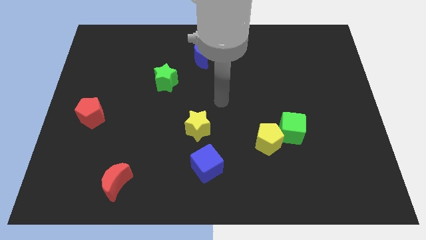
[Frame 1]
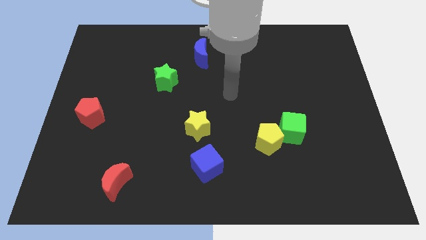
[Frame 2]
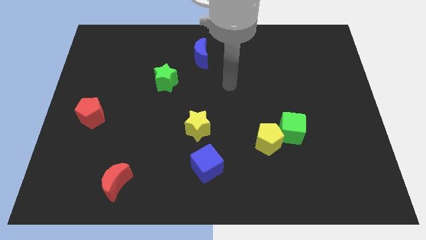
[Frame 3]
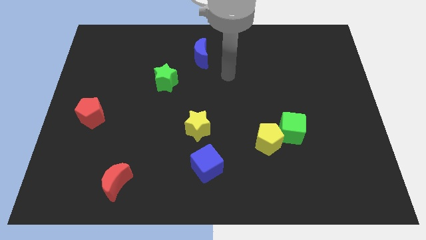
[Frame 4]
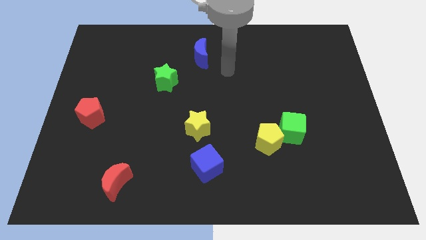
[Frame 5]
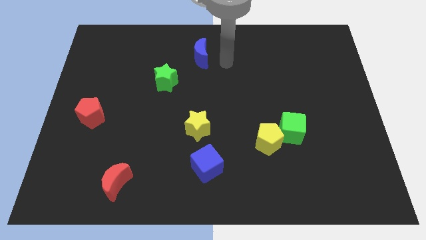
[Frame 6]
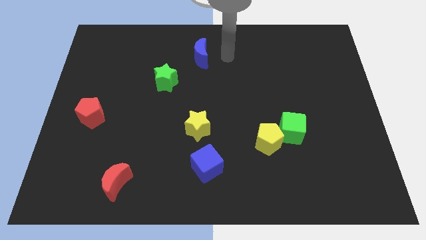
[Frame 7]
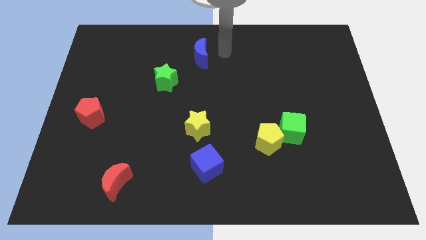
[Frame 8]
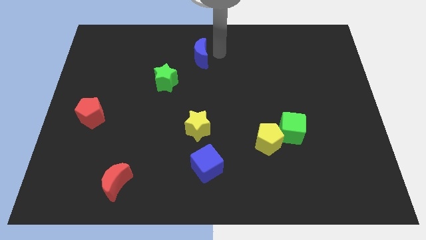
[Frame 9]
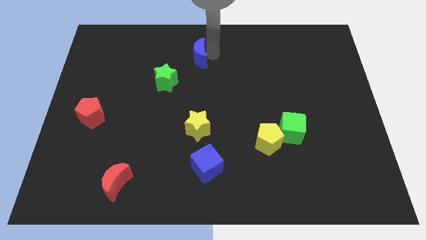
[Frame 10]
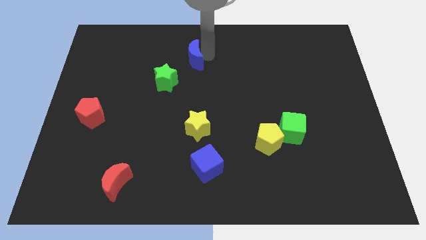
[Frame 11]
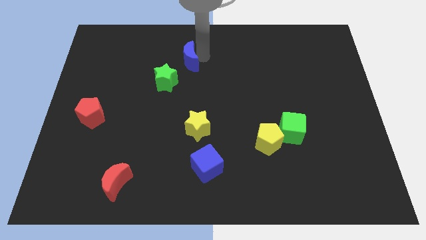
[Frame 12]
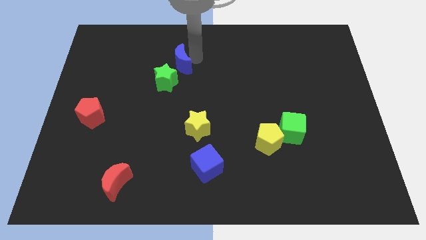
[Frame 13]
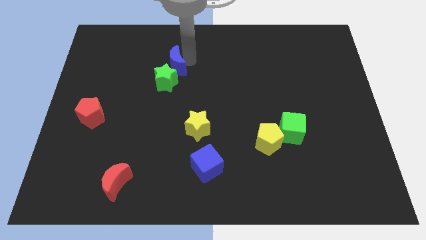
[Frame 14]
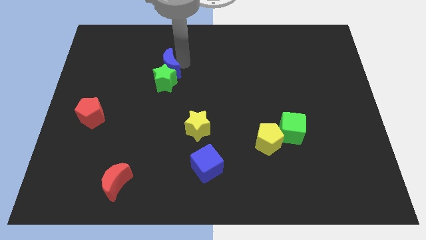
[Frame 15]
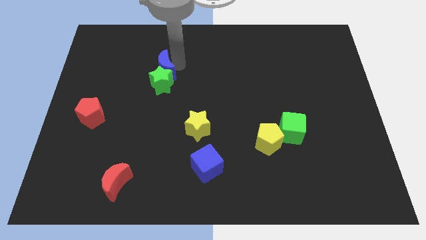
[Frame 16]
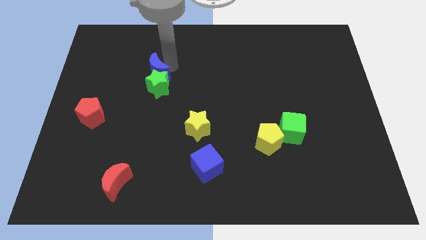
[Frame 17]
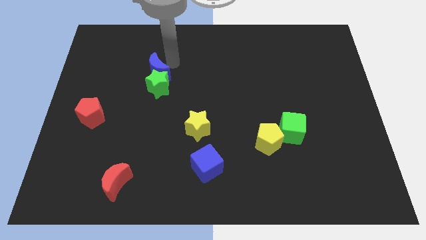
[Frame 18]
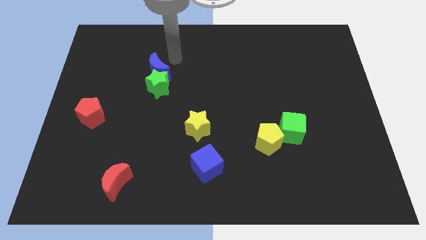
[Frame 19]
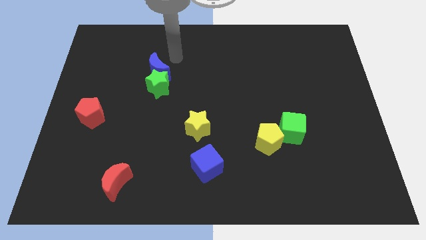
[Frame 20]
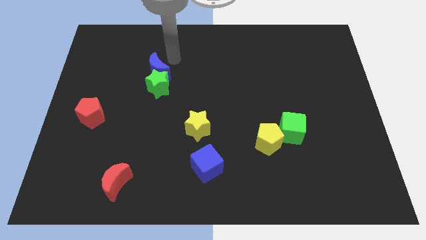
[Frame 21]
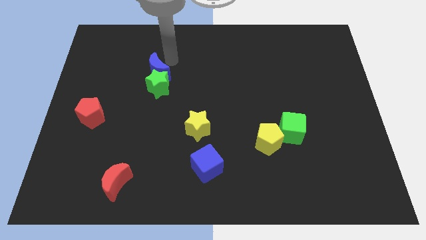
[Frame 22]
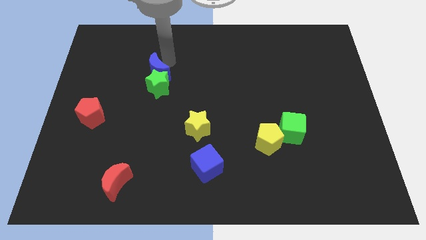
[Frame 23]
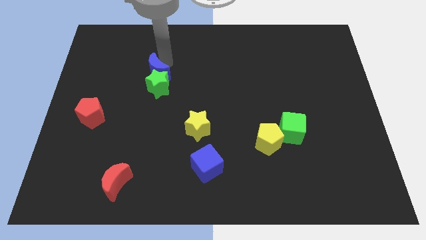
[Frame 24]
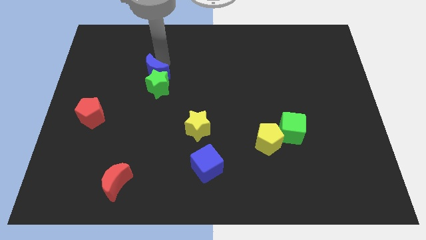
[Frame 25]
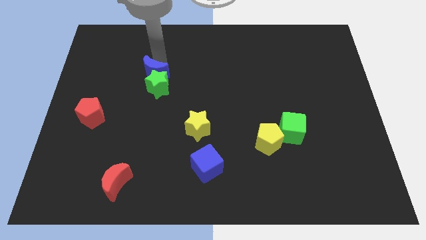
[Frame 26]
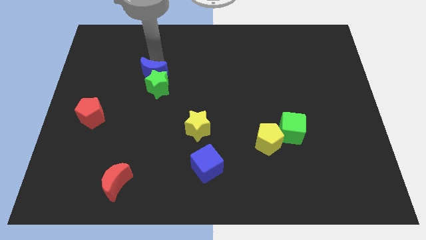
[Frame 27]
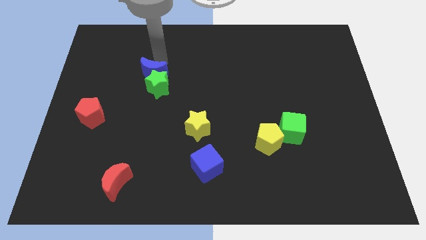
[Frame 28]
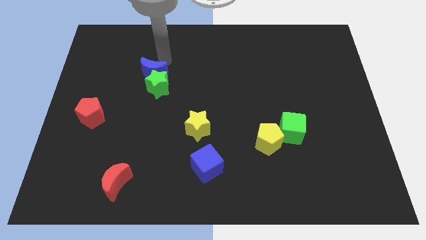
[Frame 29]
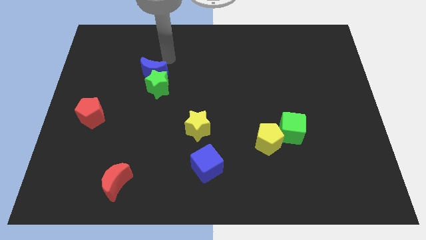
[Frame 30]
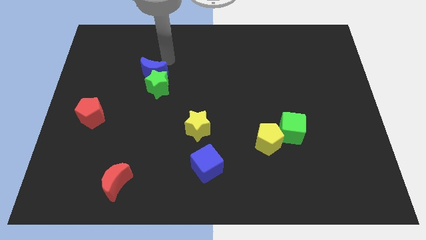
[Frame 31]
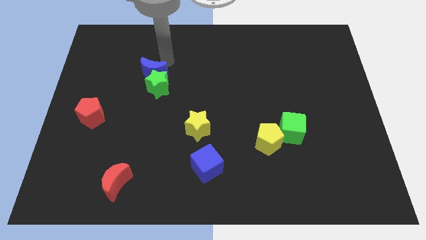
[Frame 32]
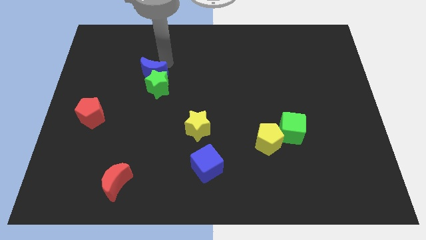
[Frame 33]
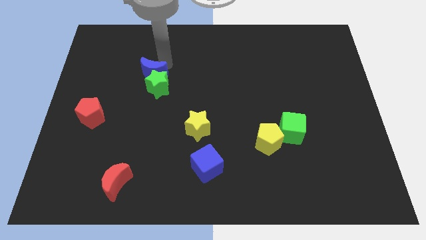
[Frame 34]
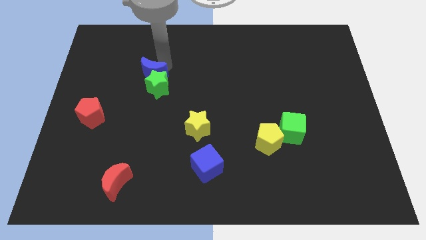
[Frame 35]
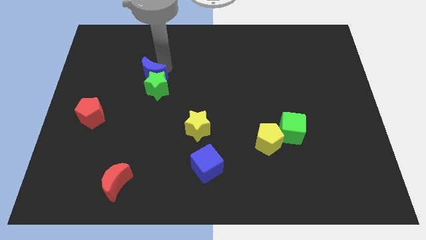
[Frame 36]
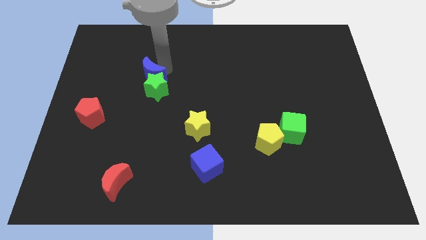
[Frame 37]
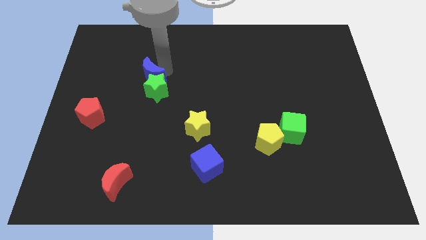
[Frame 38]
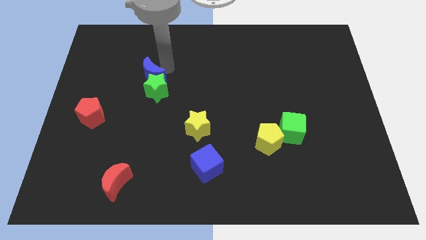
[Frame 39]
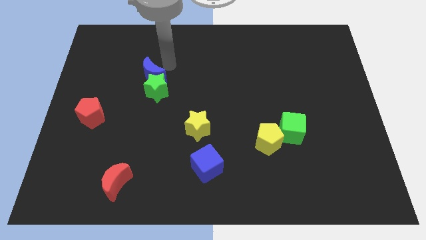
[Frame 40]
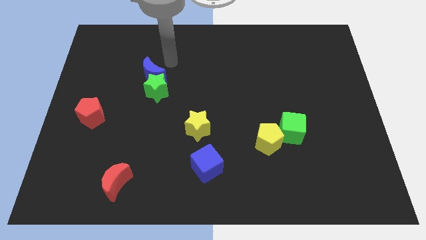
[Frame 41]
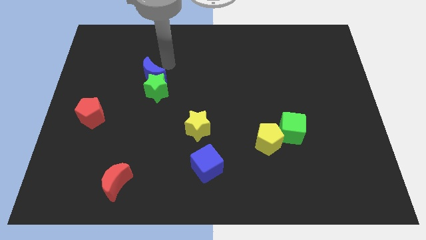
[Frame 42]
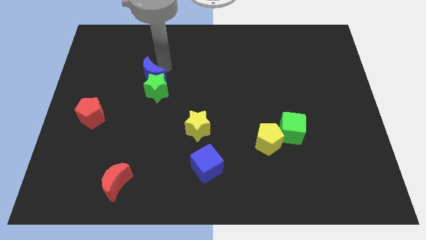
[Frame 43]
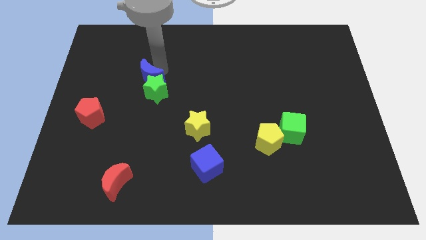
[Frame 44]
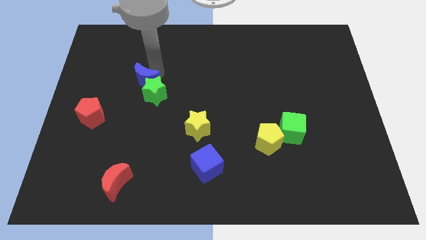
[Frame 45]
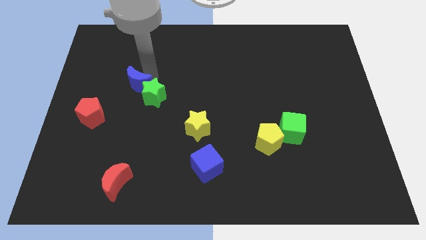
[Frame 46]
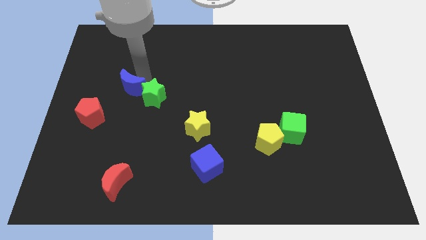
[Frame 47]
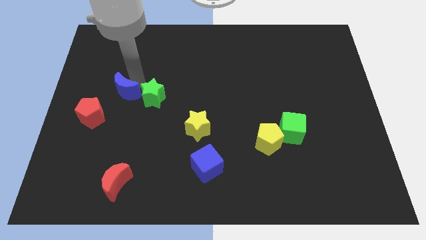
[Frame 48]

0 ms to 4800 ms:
move the blue moon diagonally down and to the left

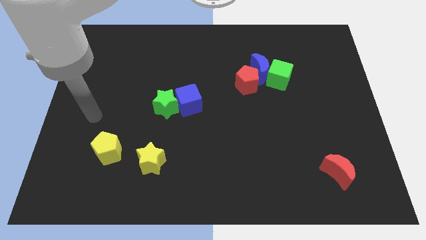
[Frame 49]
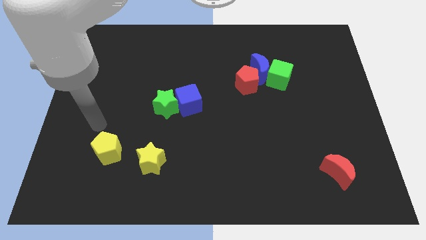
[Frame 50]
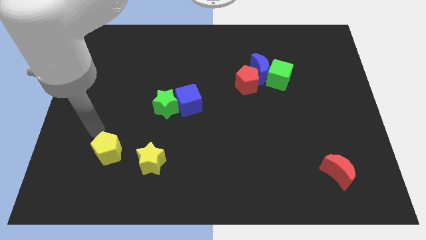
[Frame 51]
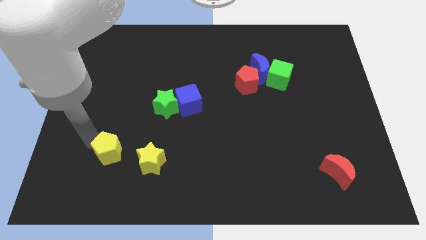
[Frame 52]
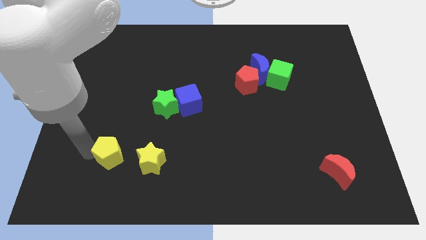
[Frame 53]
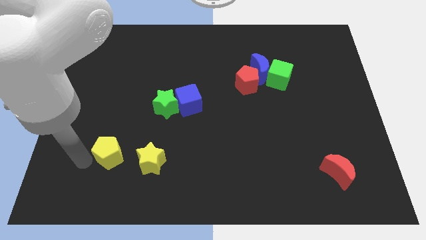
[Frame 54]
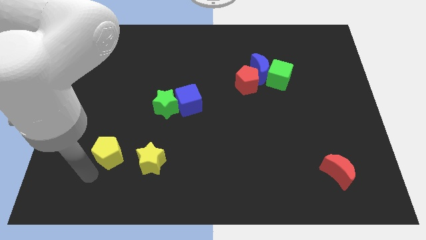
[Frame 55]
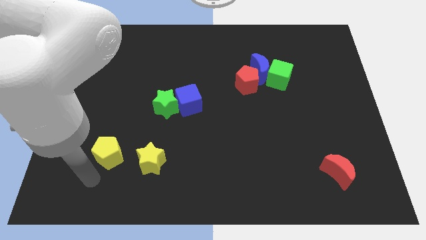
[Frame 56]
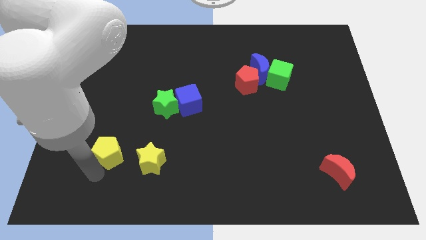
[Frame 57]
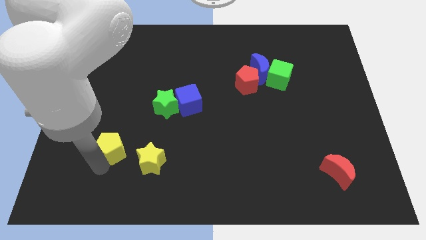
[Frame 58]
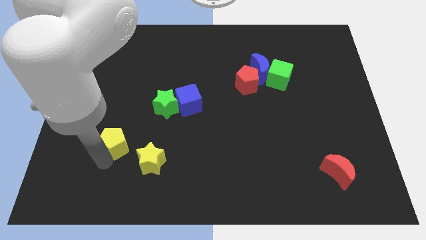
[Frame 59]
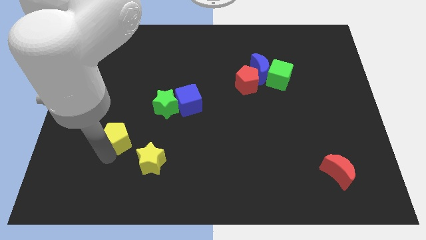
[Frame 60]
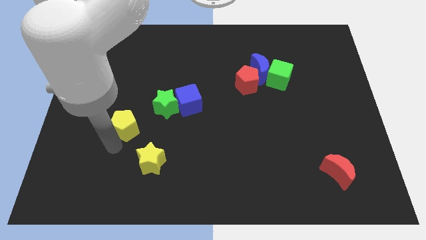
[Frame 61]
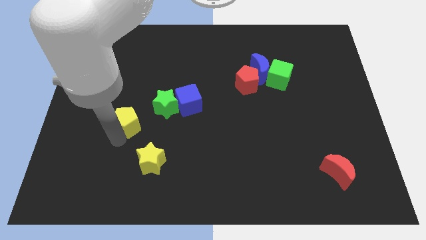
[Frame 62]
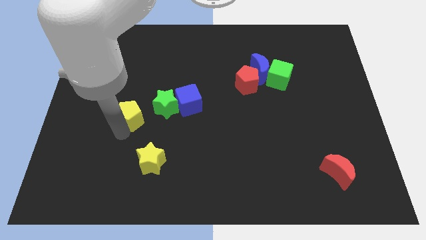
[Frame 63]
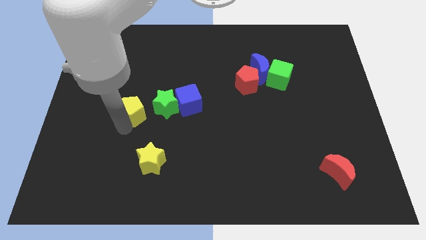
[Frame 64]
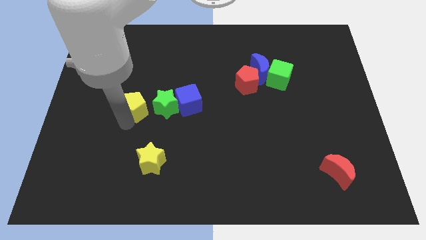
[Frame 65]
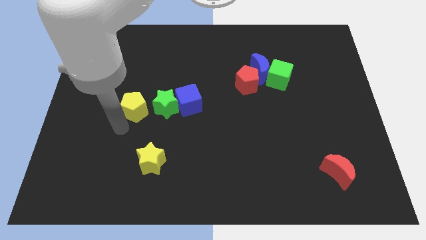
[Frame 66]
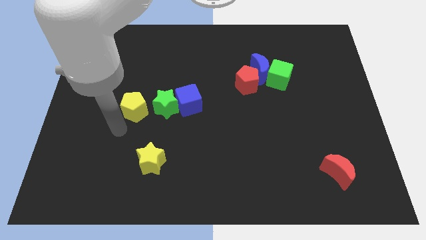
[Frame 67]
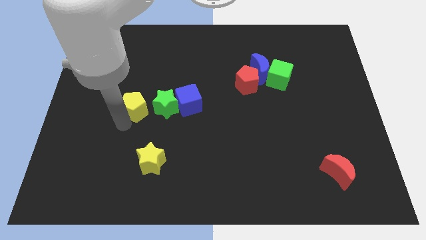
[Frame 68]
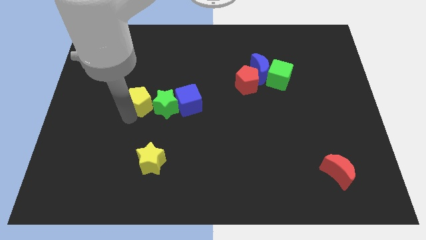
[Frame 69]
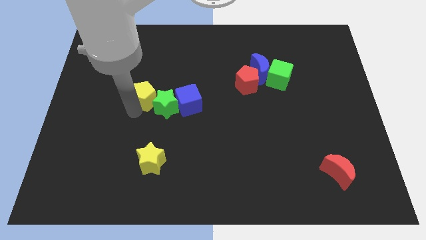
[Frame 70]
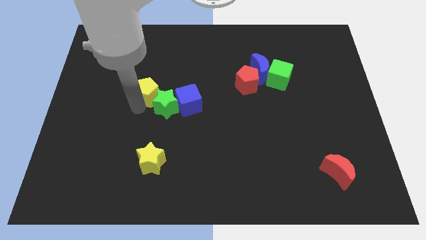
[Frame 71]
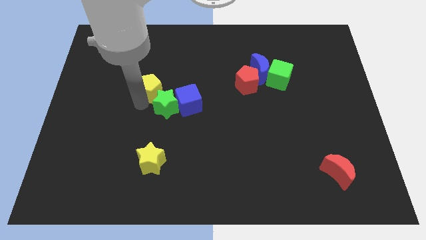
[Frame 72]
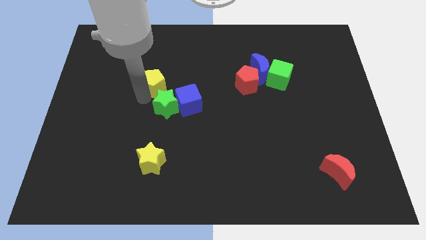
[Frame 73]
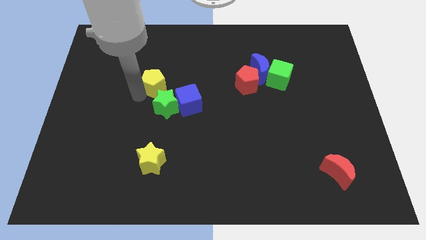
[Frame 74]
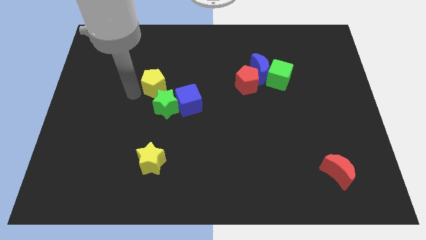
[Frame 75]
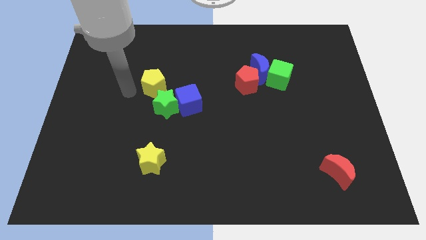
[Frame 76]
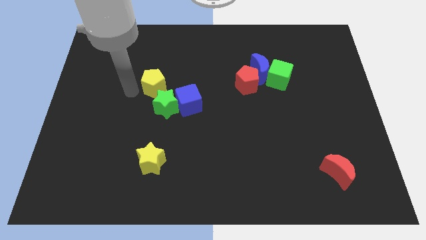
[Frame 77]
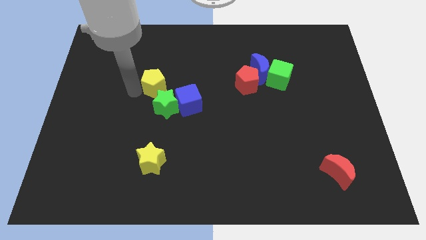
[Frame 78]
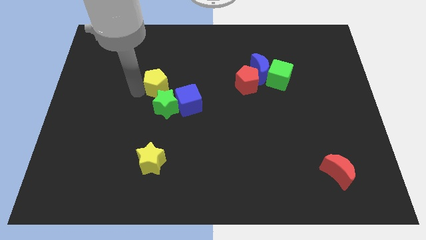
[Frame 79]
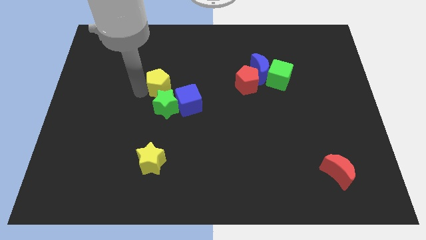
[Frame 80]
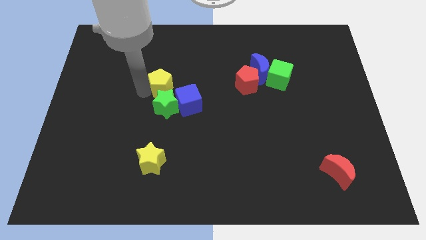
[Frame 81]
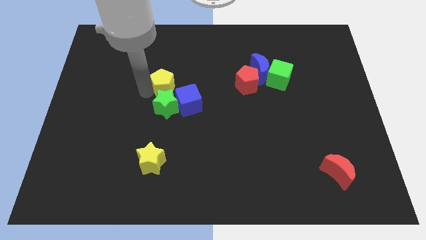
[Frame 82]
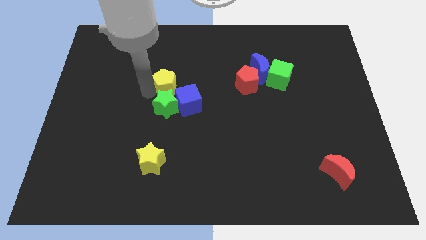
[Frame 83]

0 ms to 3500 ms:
push the yellow pentagon diagonally up and to the right

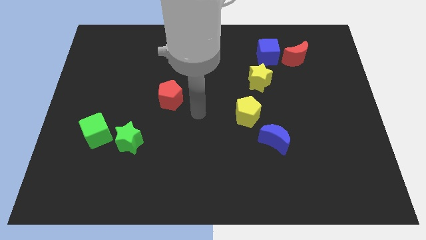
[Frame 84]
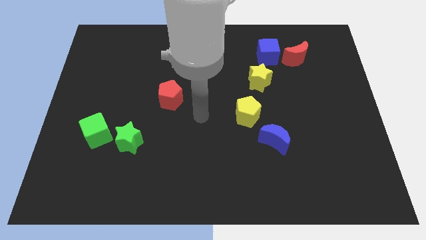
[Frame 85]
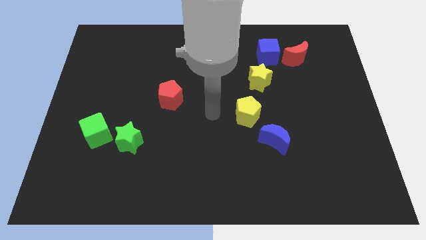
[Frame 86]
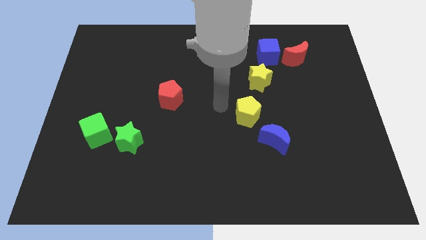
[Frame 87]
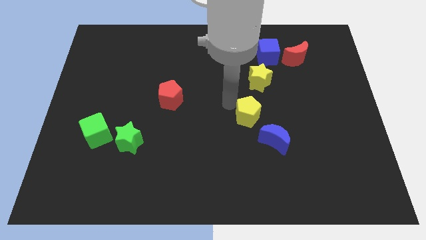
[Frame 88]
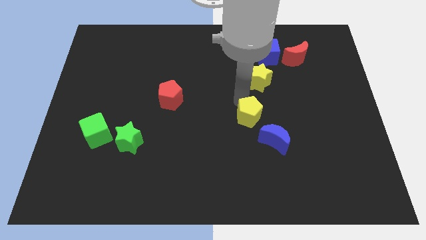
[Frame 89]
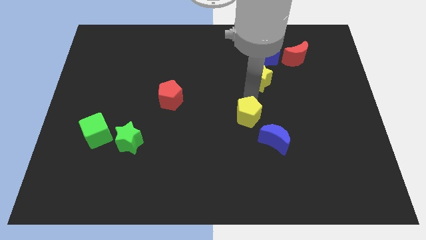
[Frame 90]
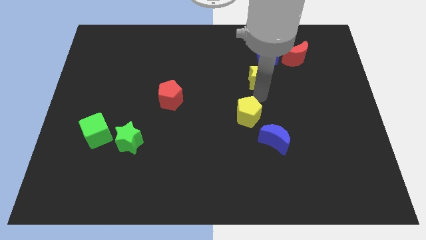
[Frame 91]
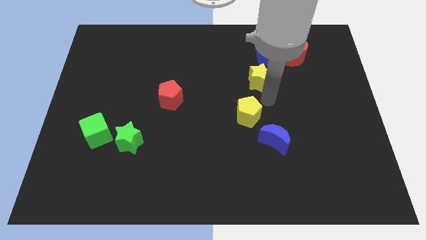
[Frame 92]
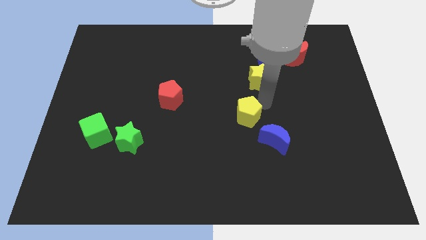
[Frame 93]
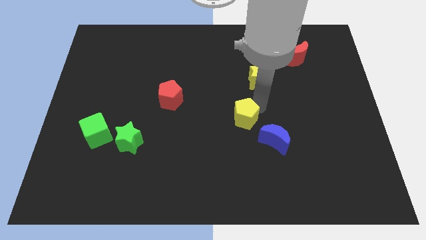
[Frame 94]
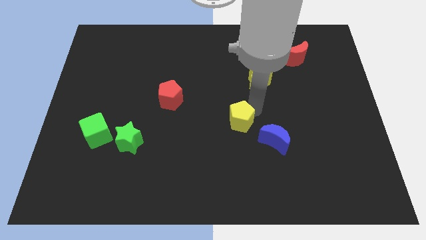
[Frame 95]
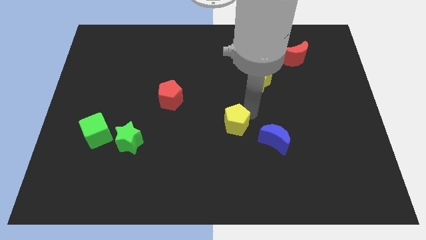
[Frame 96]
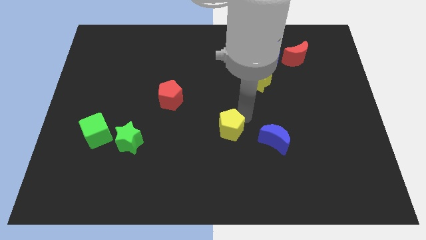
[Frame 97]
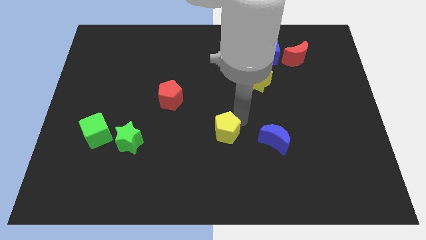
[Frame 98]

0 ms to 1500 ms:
push the yellow pentagon slightly diagonally down and to the left
